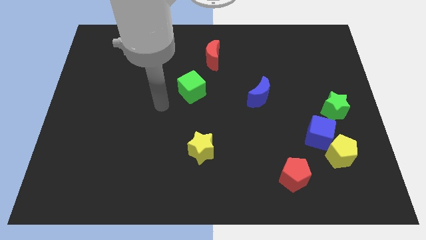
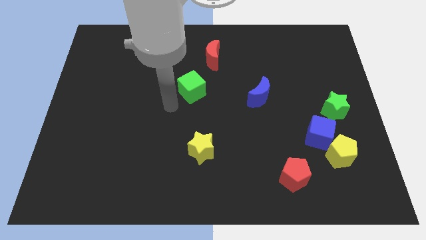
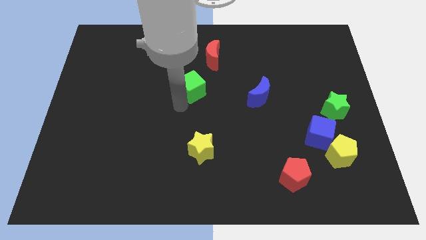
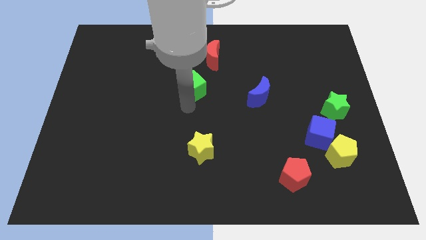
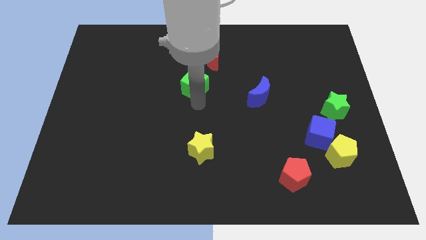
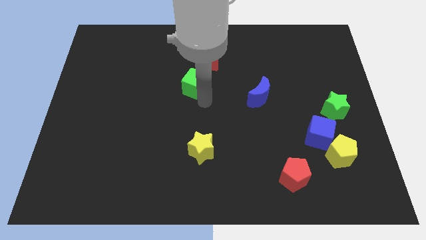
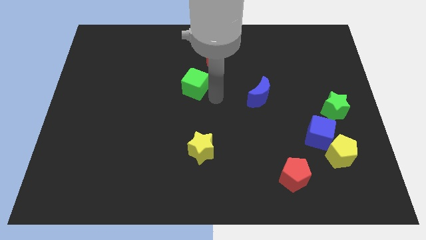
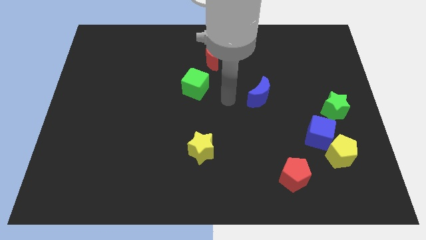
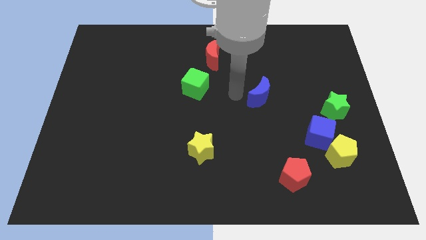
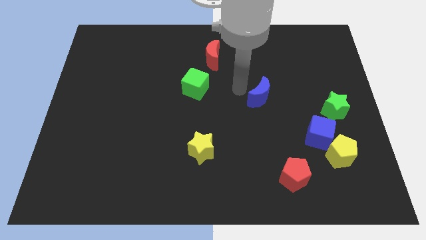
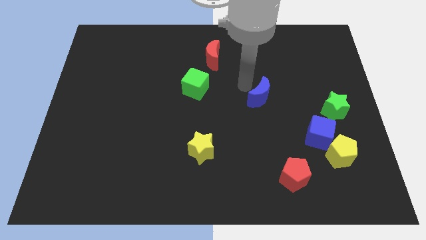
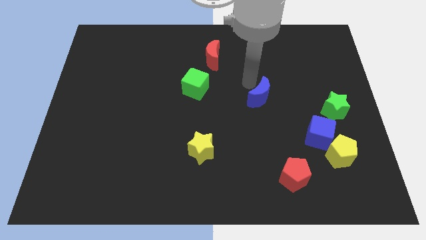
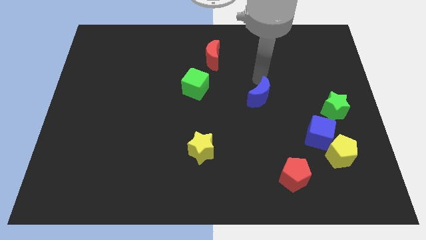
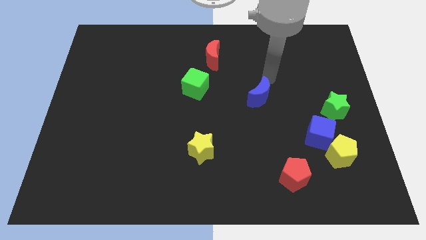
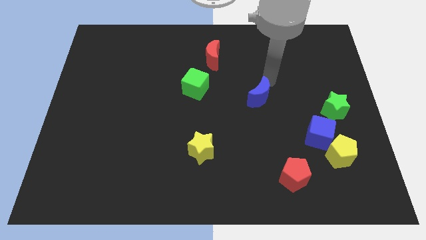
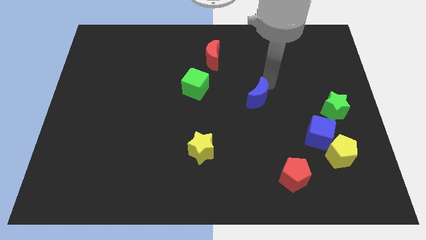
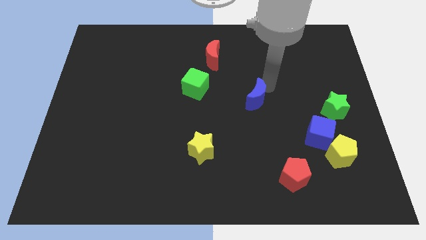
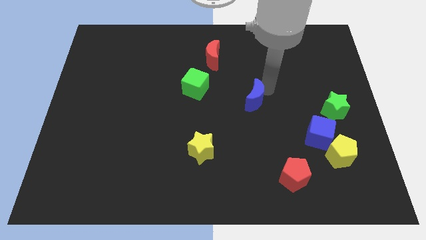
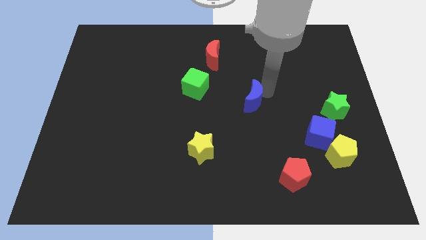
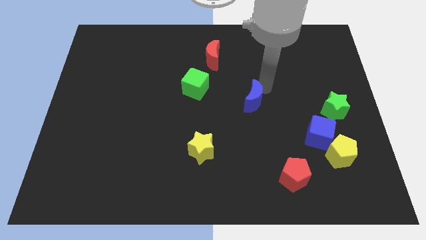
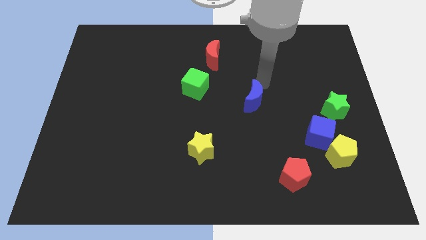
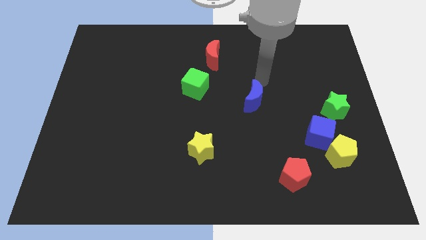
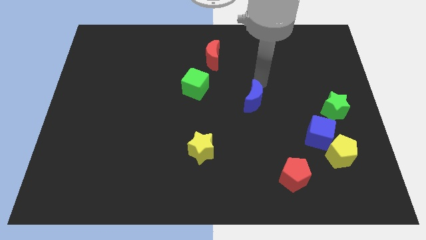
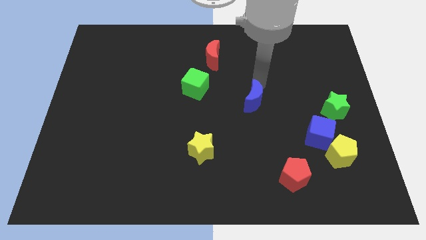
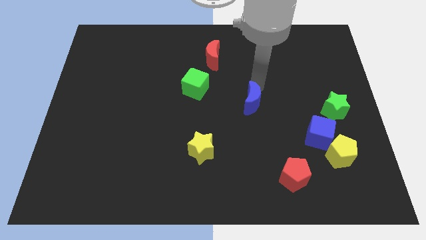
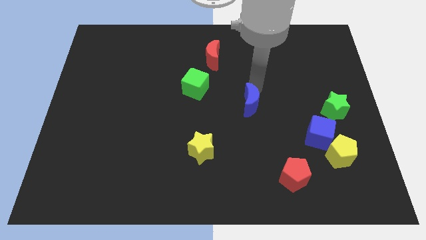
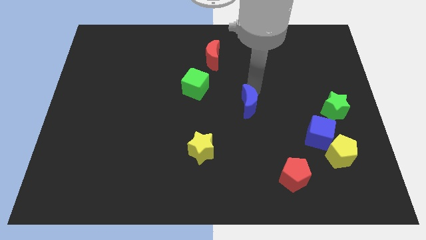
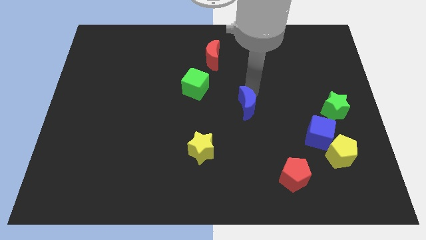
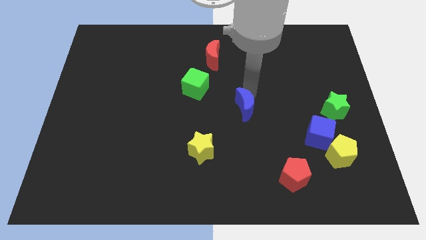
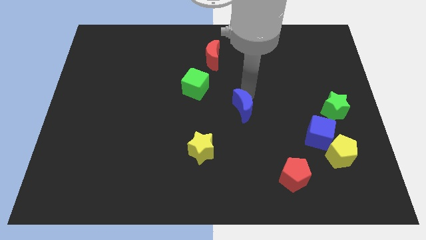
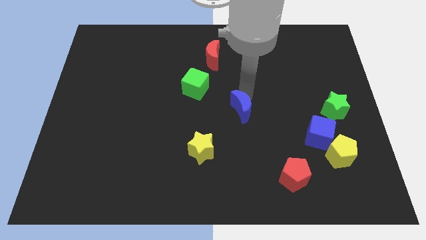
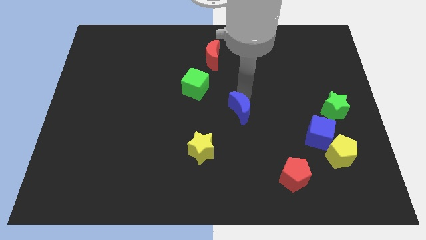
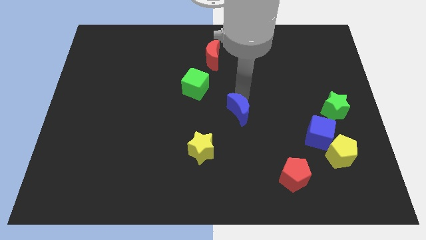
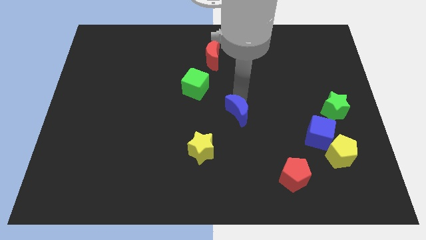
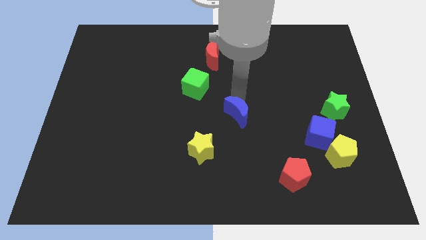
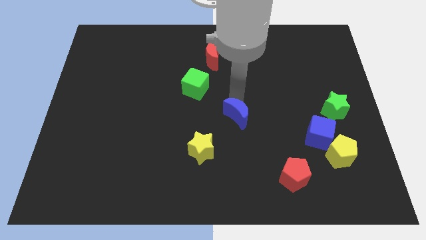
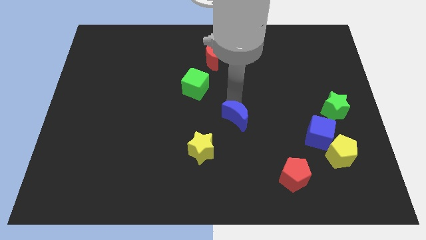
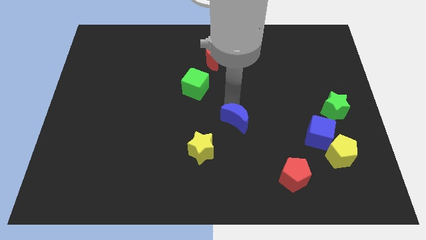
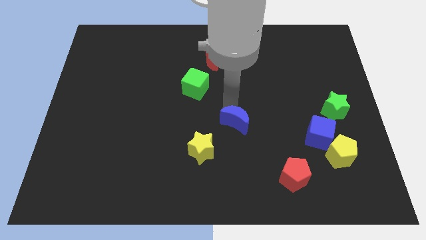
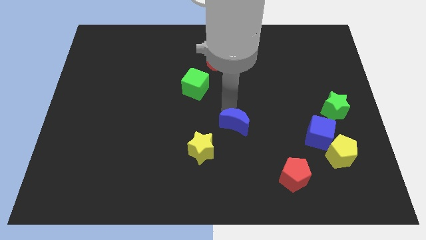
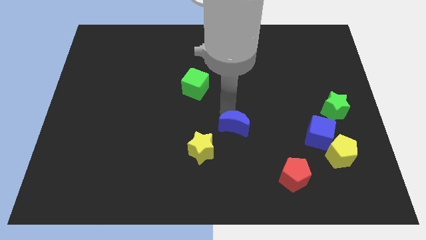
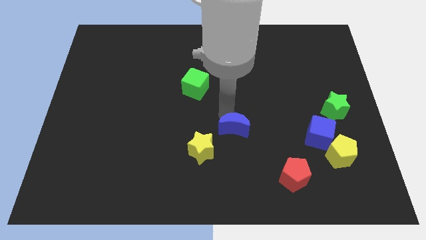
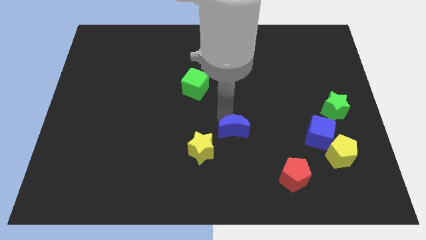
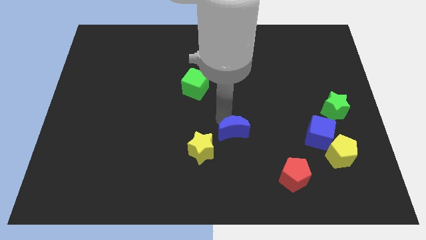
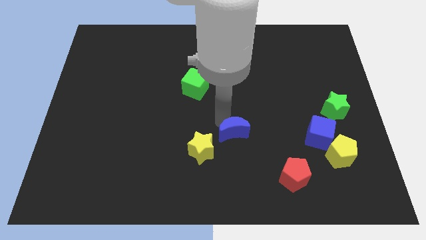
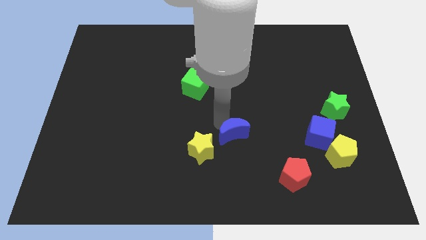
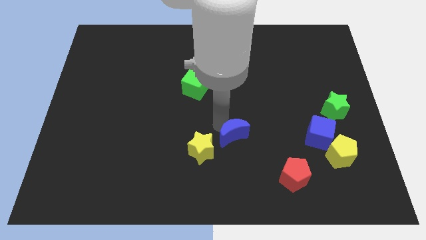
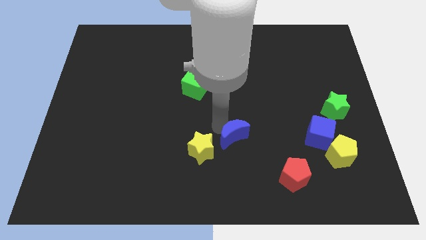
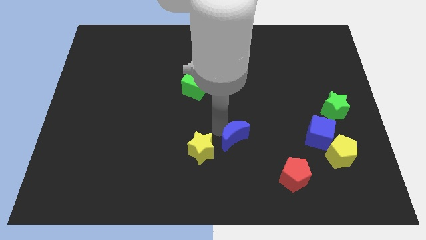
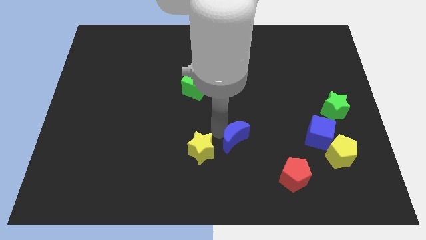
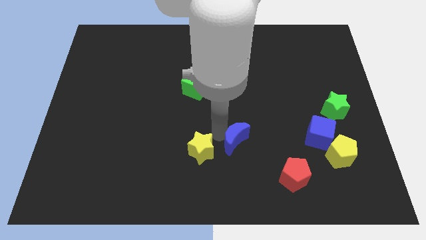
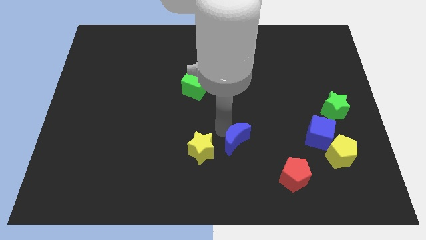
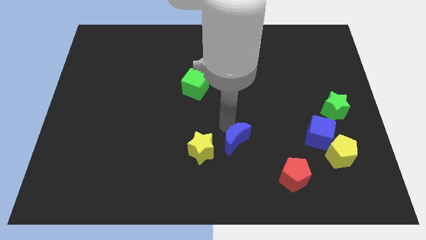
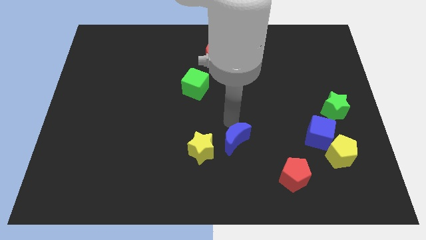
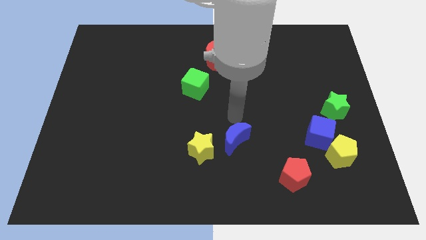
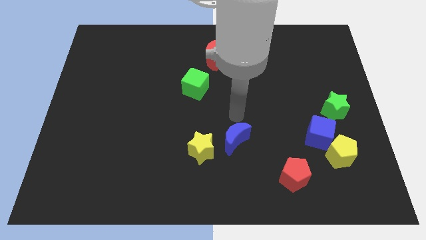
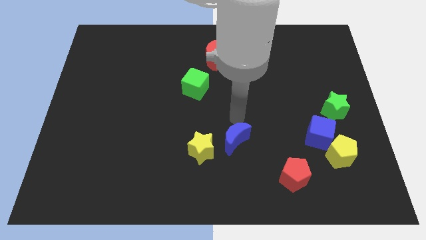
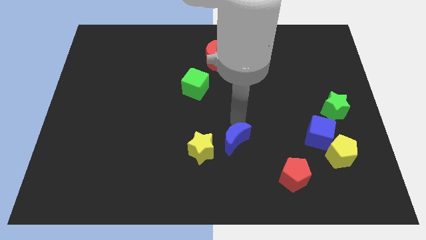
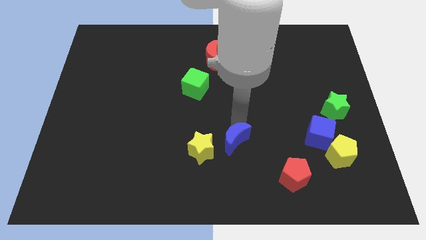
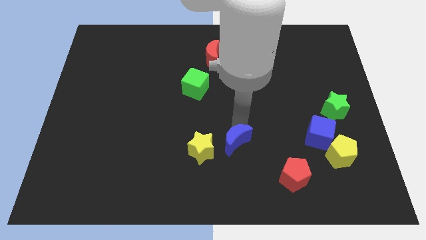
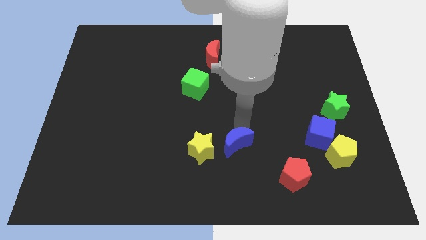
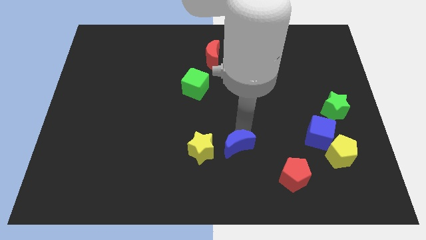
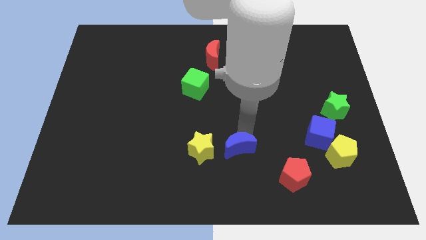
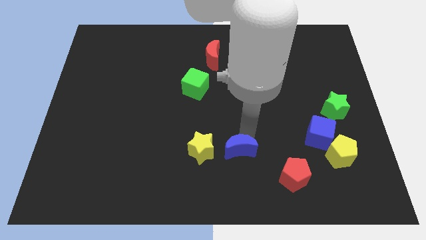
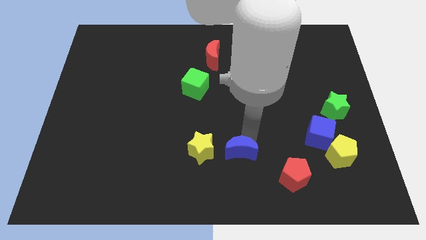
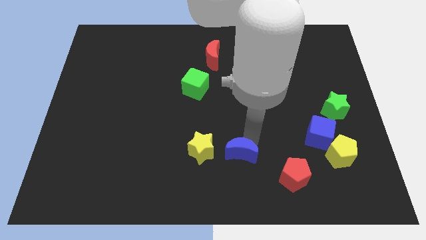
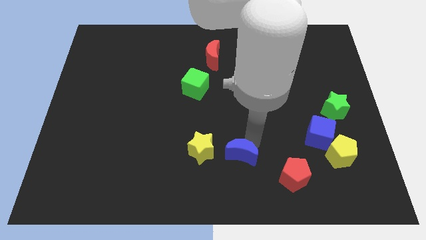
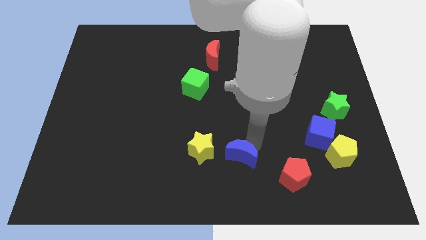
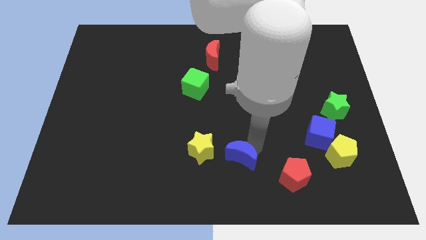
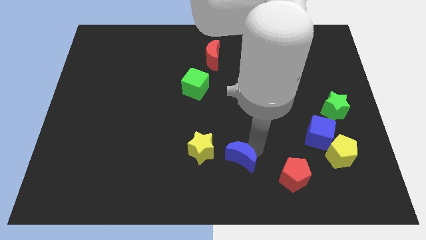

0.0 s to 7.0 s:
push the blue moon to the bottom
